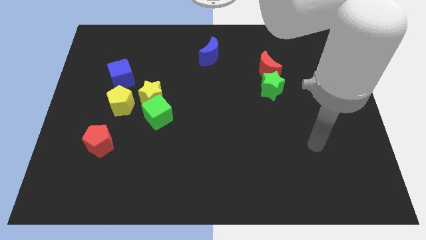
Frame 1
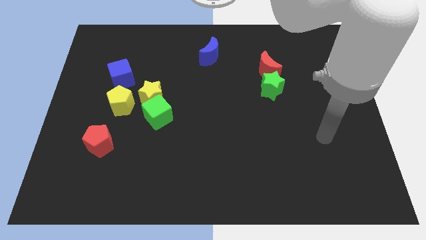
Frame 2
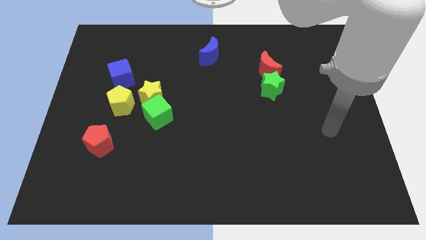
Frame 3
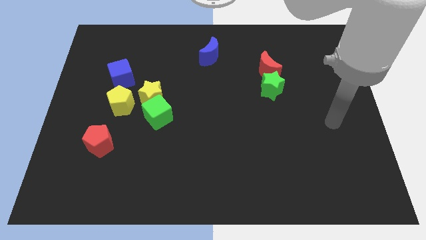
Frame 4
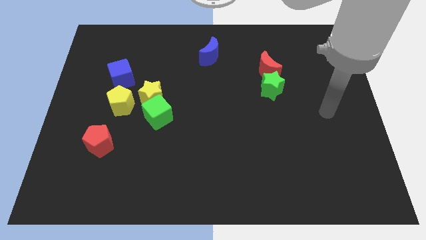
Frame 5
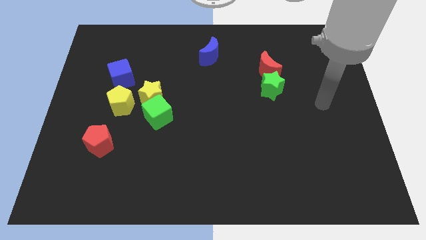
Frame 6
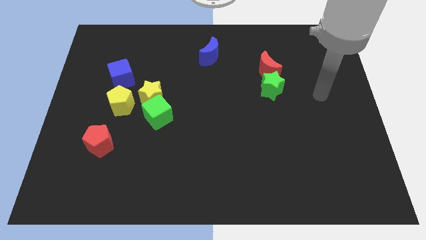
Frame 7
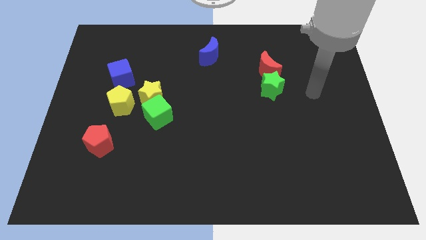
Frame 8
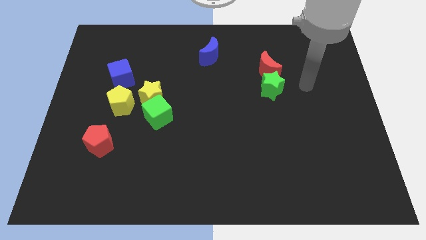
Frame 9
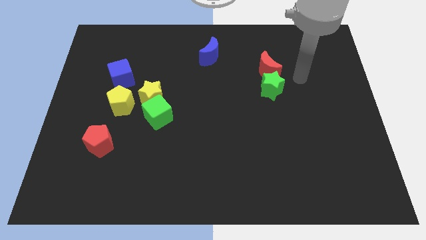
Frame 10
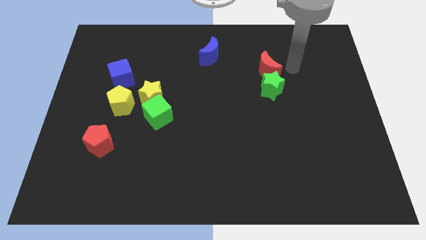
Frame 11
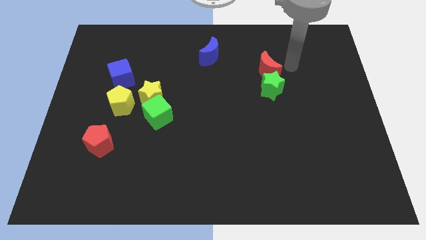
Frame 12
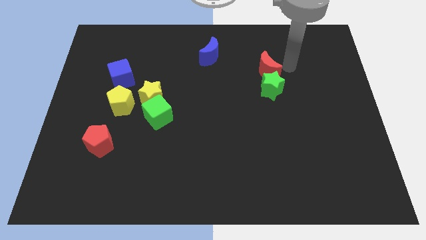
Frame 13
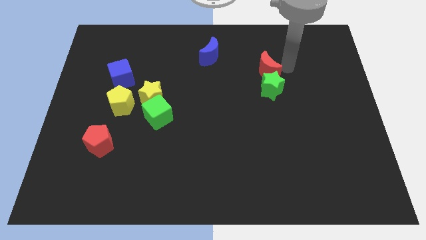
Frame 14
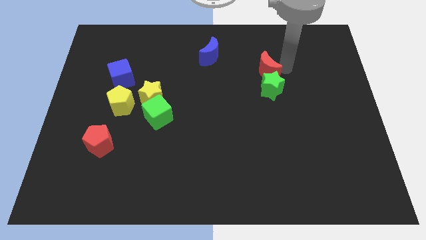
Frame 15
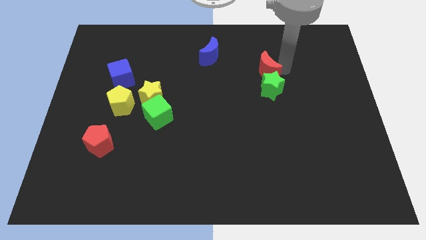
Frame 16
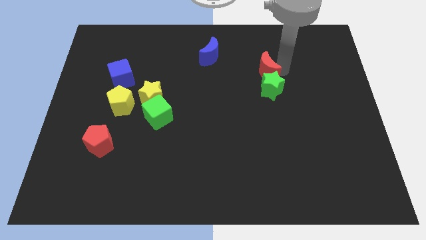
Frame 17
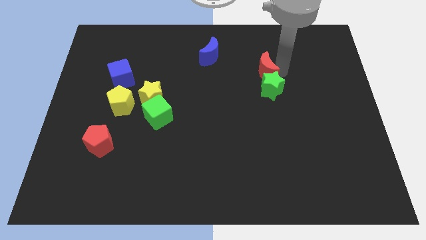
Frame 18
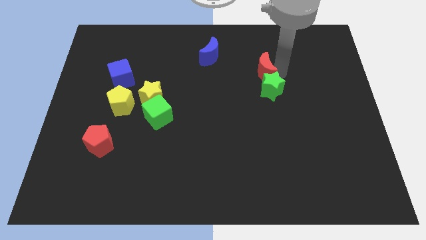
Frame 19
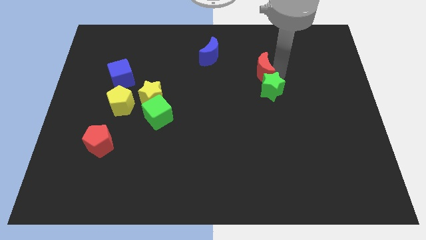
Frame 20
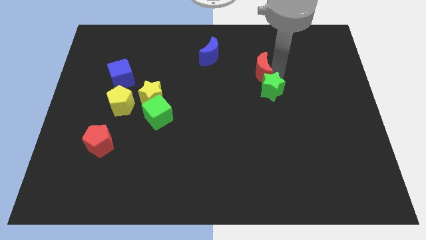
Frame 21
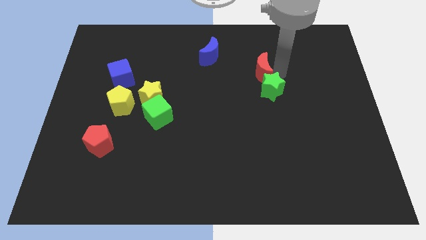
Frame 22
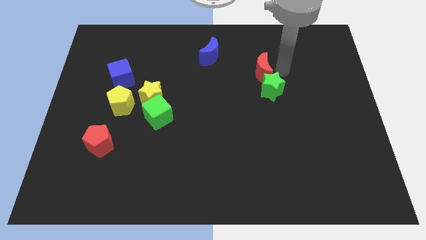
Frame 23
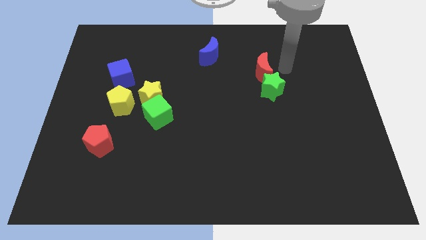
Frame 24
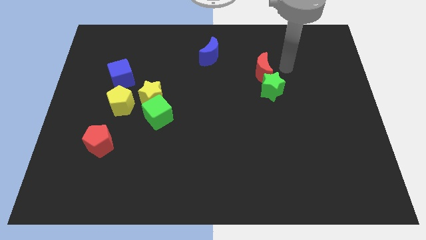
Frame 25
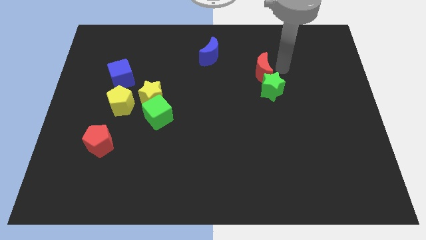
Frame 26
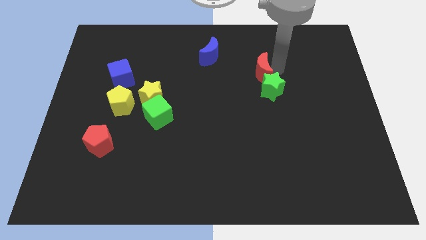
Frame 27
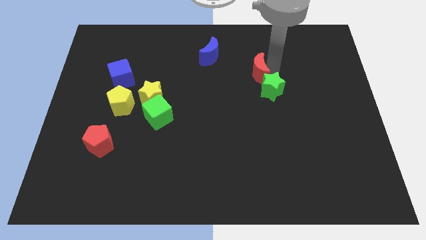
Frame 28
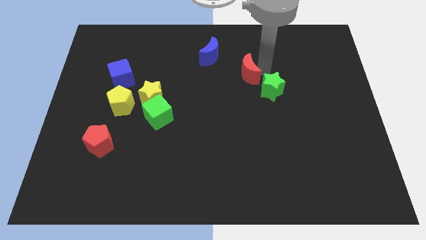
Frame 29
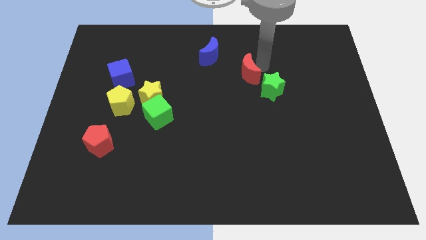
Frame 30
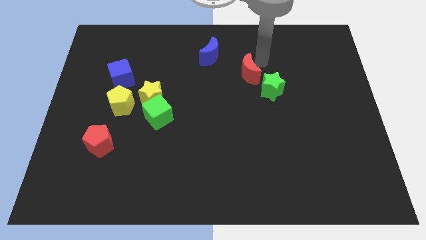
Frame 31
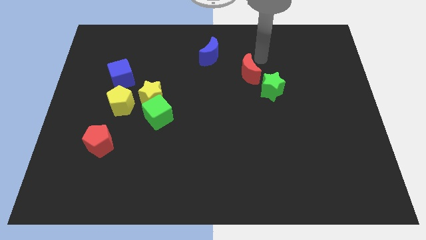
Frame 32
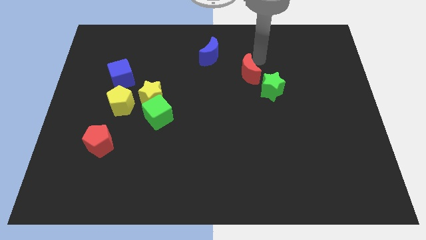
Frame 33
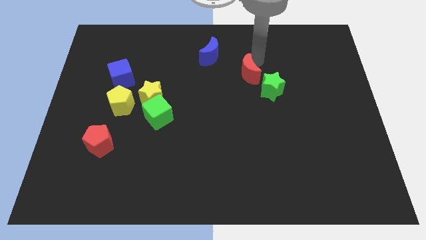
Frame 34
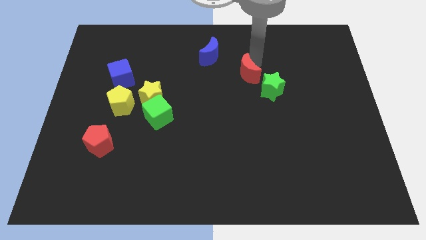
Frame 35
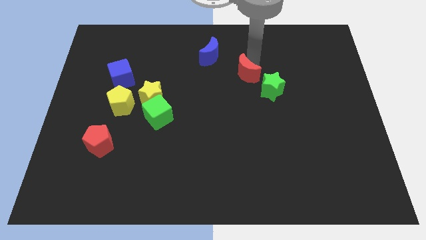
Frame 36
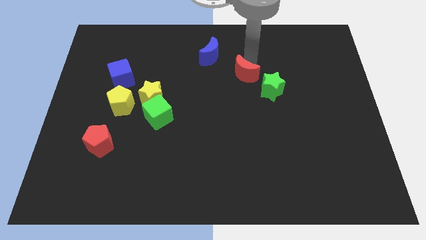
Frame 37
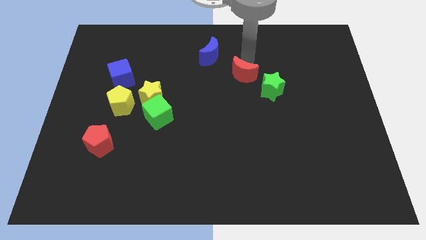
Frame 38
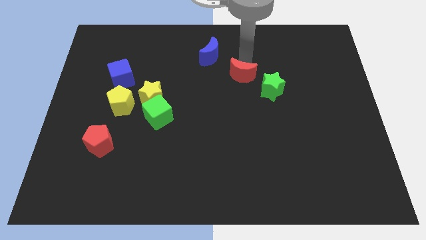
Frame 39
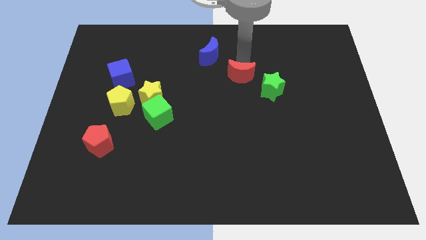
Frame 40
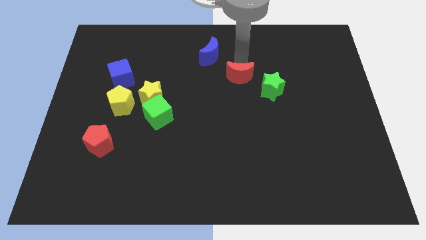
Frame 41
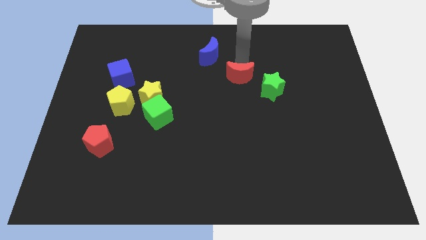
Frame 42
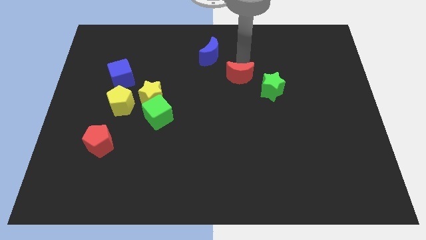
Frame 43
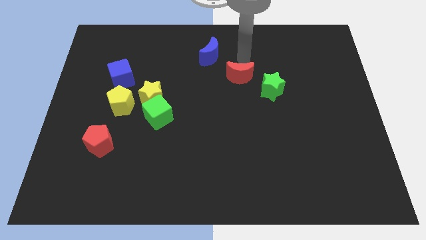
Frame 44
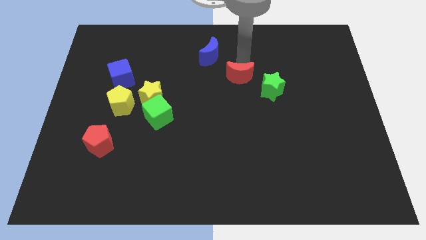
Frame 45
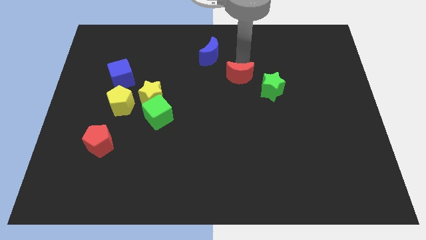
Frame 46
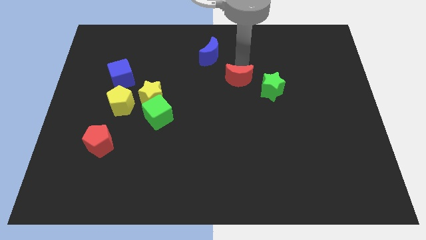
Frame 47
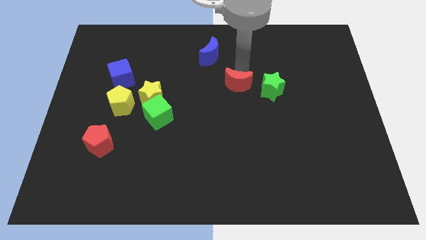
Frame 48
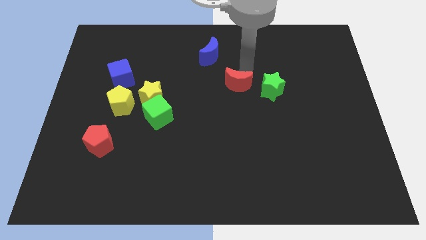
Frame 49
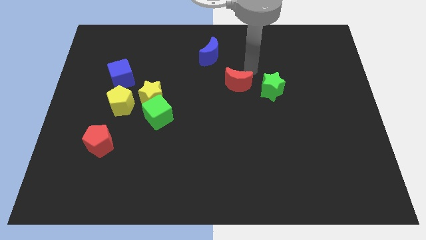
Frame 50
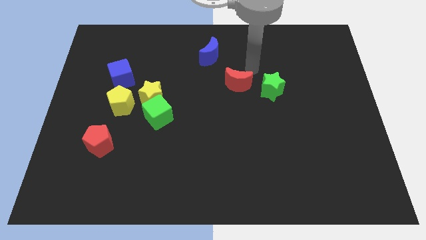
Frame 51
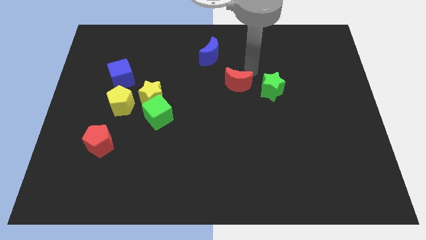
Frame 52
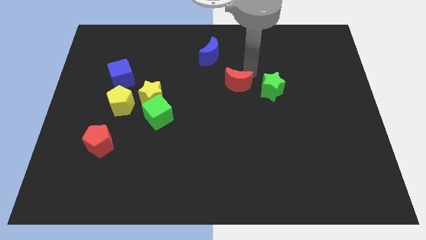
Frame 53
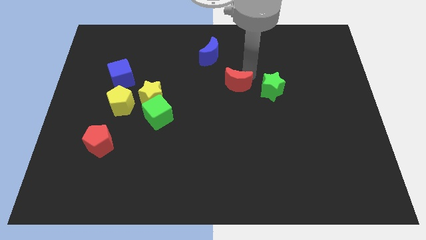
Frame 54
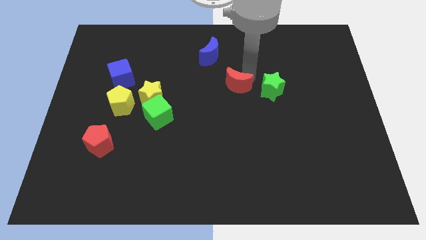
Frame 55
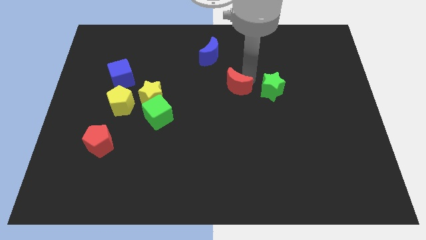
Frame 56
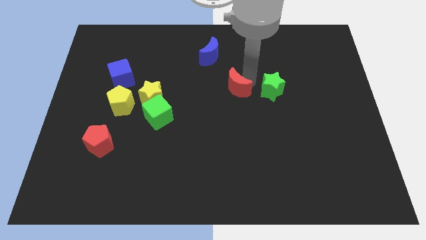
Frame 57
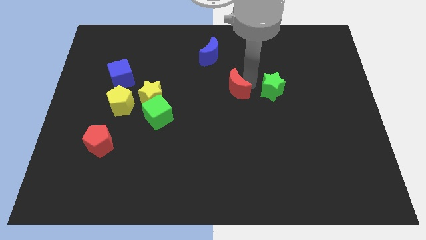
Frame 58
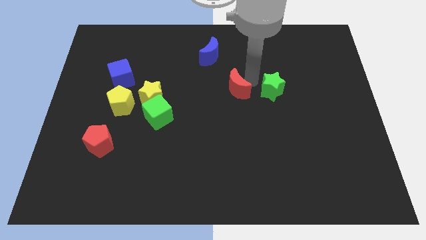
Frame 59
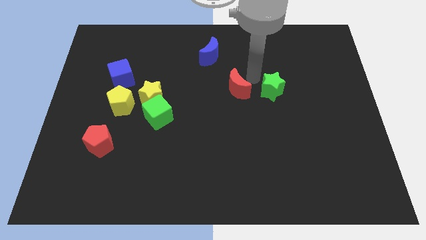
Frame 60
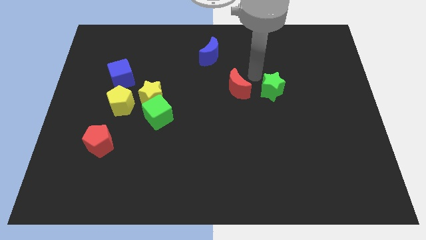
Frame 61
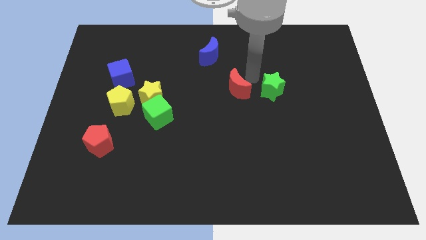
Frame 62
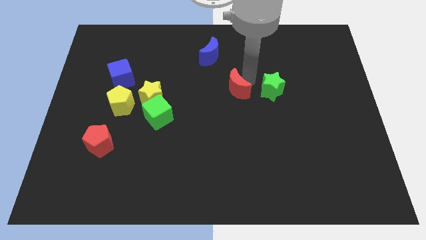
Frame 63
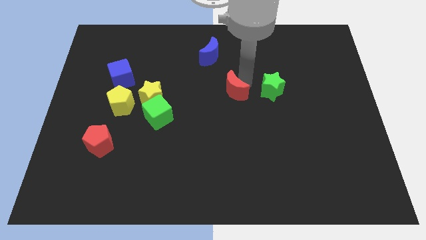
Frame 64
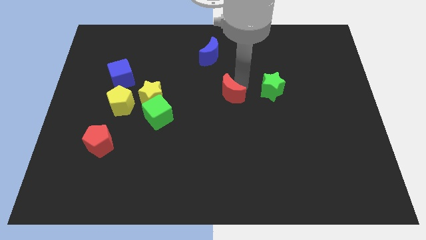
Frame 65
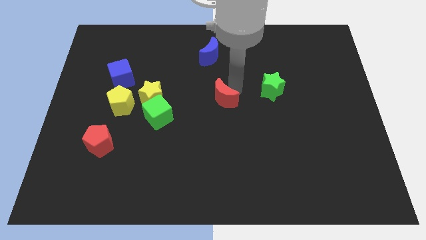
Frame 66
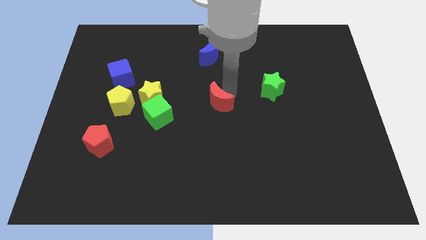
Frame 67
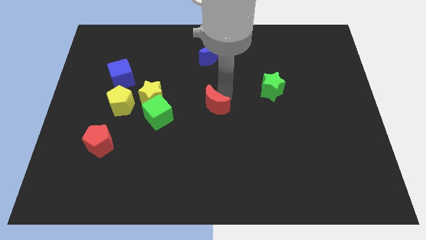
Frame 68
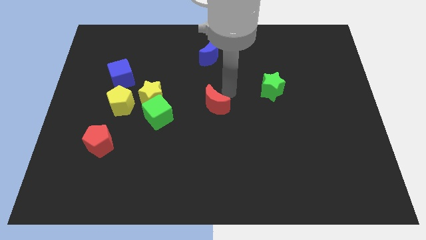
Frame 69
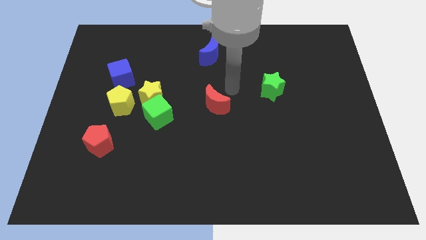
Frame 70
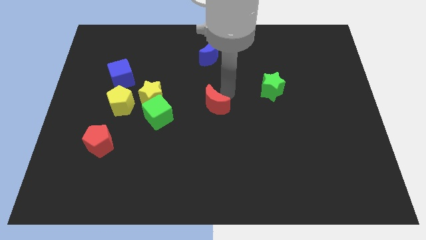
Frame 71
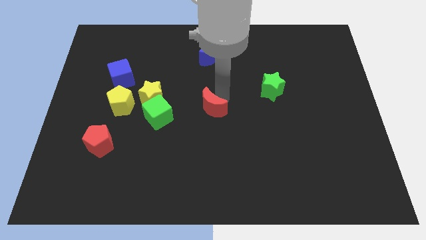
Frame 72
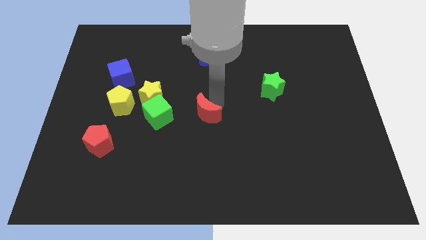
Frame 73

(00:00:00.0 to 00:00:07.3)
slide the red moon down and to the left
